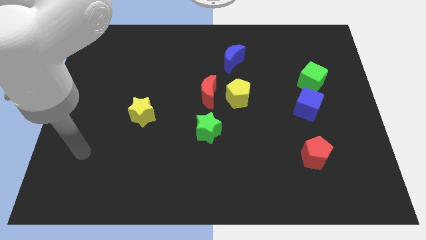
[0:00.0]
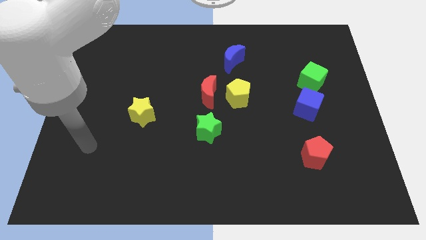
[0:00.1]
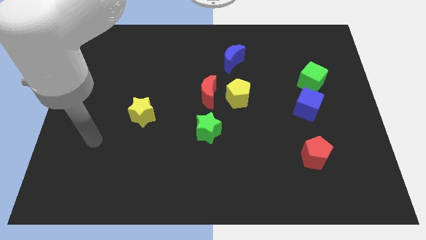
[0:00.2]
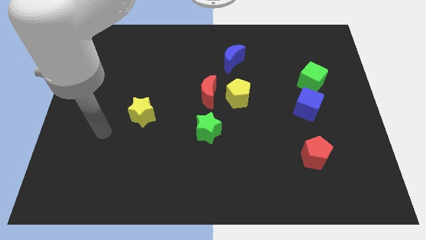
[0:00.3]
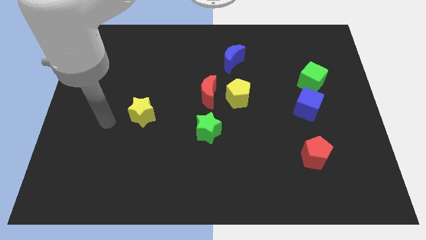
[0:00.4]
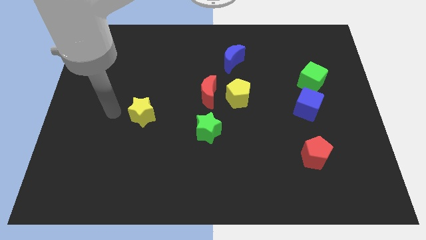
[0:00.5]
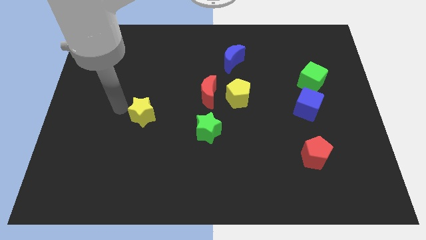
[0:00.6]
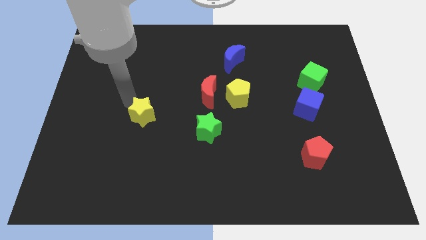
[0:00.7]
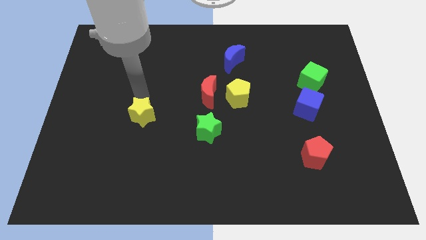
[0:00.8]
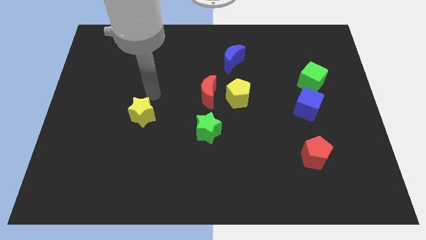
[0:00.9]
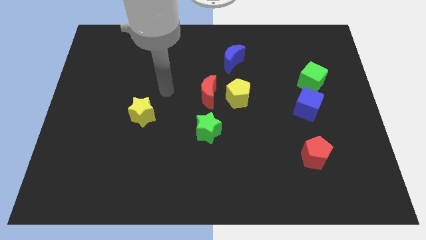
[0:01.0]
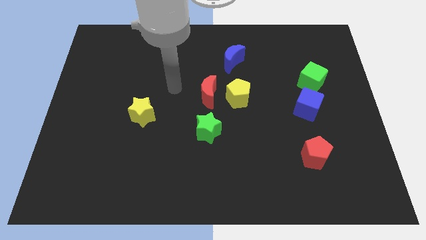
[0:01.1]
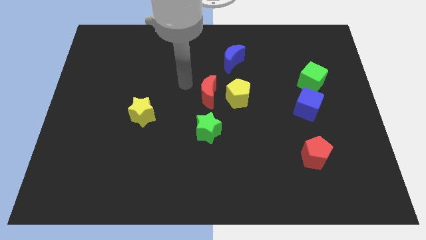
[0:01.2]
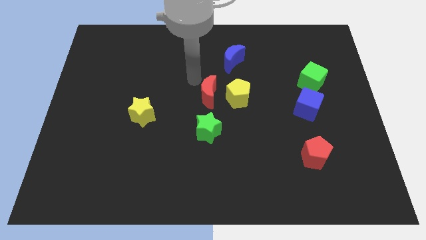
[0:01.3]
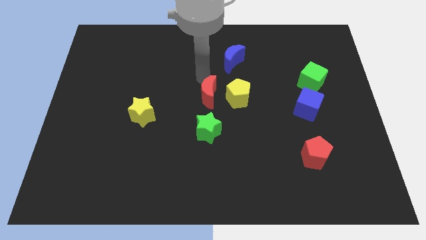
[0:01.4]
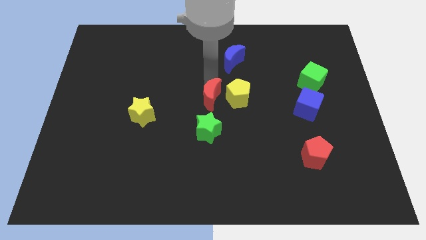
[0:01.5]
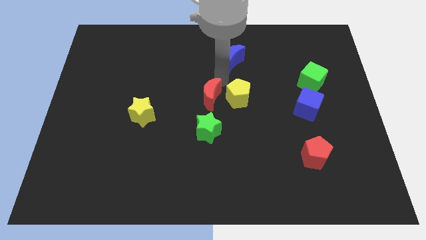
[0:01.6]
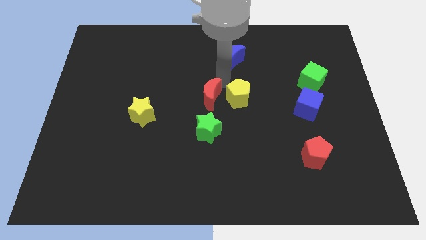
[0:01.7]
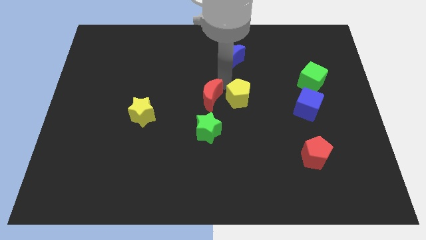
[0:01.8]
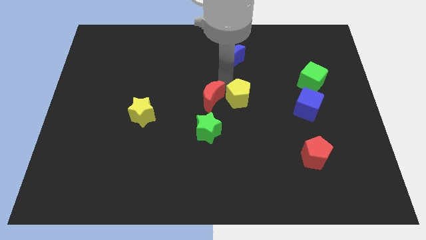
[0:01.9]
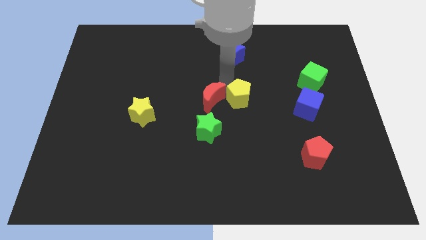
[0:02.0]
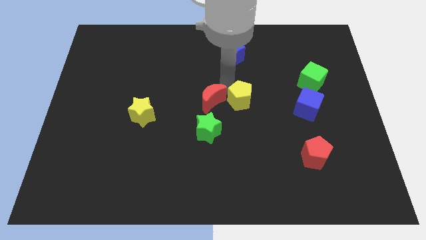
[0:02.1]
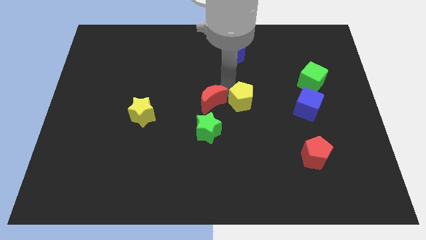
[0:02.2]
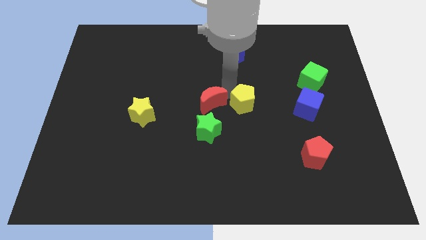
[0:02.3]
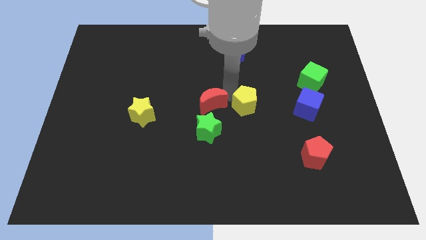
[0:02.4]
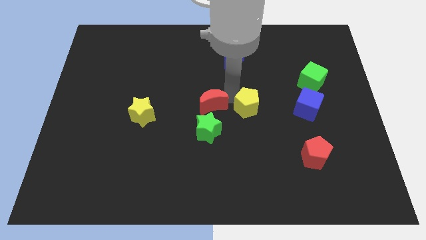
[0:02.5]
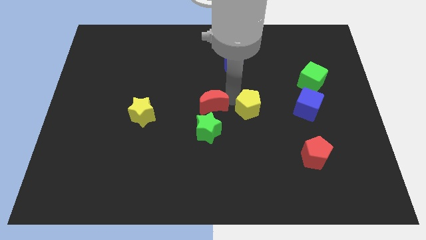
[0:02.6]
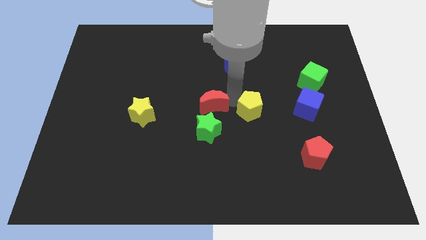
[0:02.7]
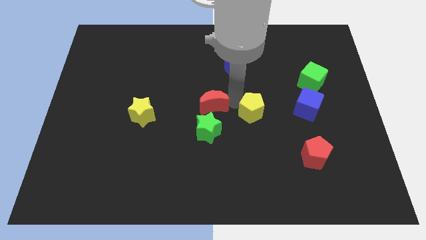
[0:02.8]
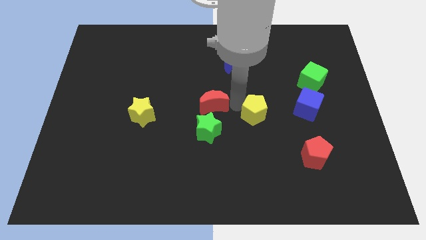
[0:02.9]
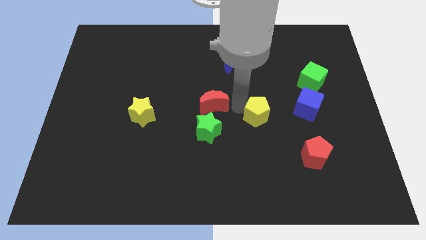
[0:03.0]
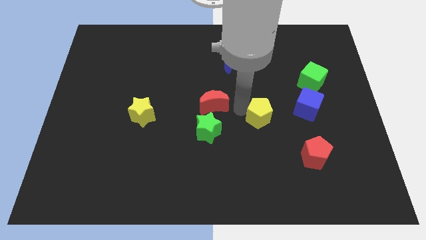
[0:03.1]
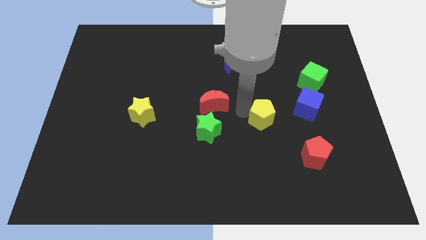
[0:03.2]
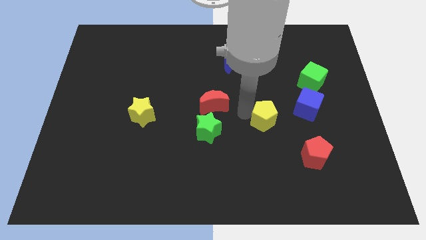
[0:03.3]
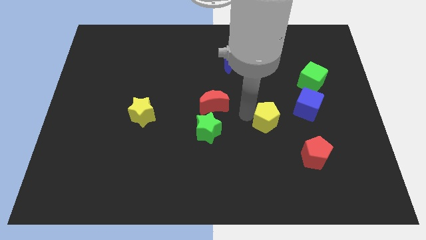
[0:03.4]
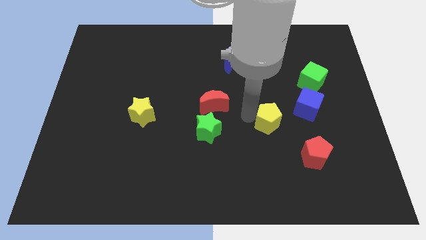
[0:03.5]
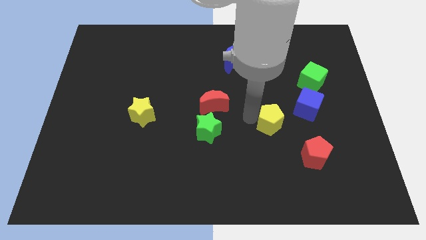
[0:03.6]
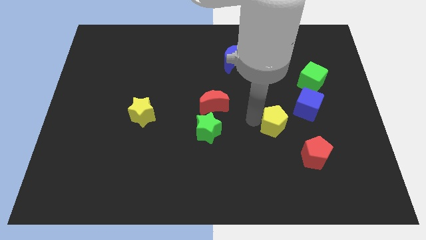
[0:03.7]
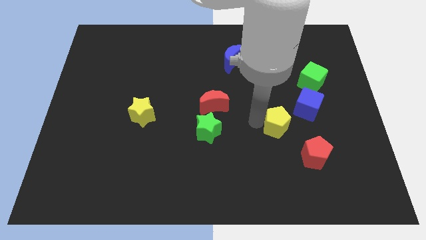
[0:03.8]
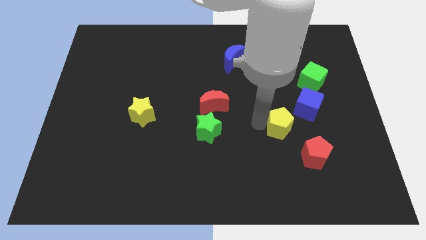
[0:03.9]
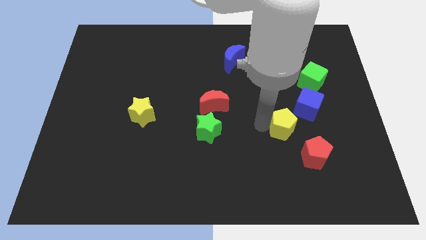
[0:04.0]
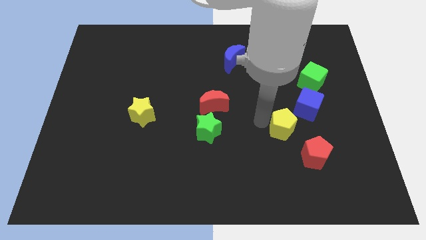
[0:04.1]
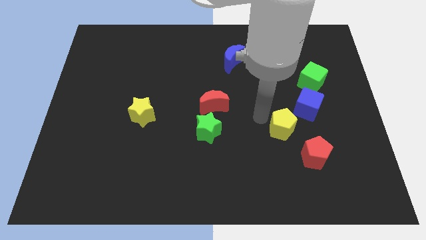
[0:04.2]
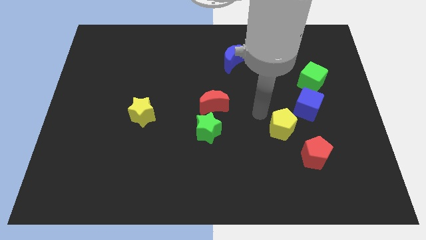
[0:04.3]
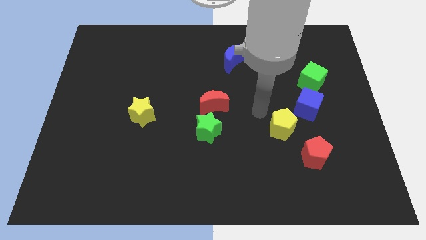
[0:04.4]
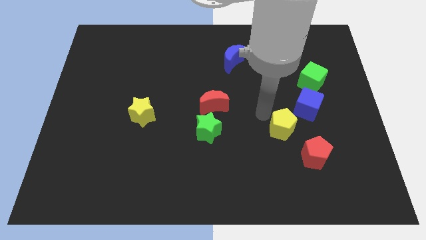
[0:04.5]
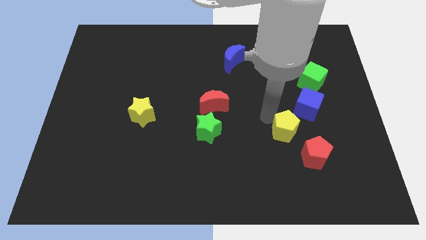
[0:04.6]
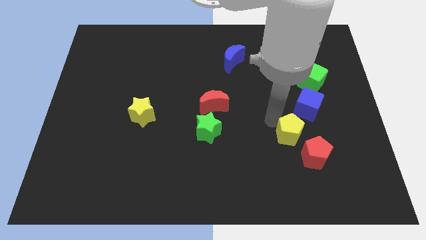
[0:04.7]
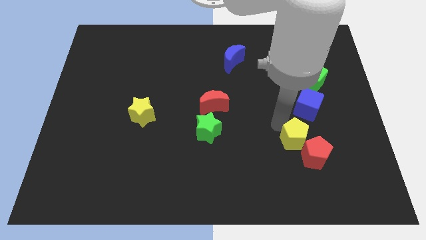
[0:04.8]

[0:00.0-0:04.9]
put the yellow pentagon close to the red pentagon

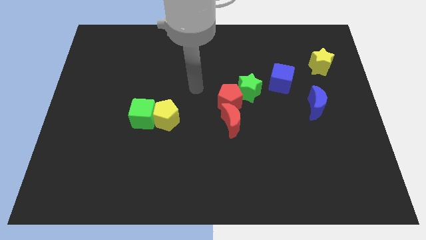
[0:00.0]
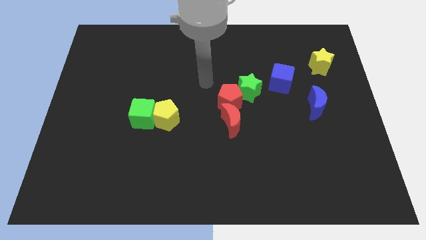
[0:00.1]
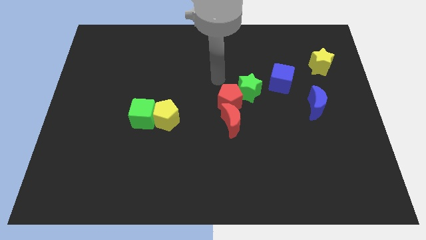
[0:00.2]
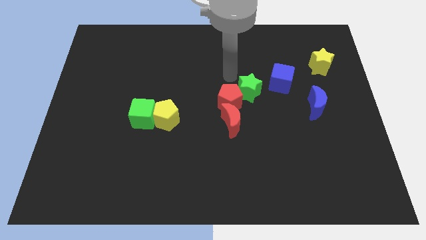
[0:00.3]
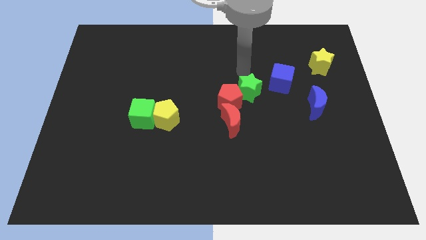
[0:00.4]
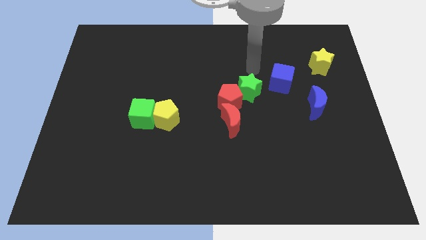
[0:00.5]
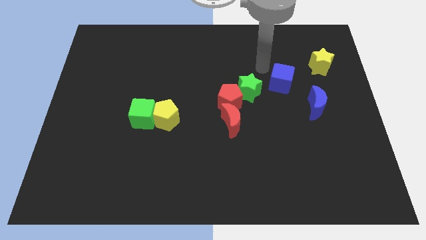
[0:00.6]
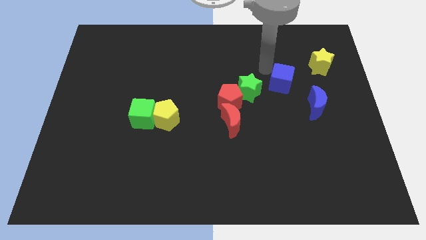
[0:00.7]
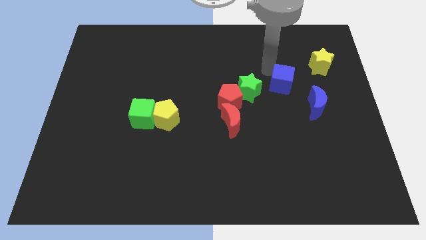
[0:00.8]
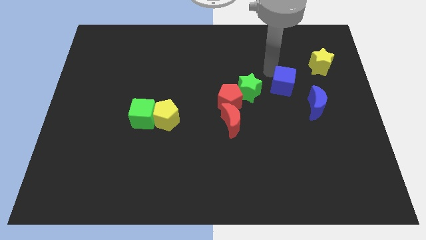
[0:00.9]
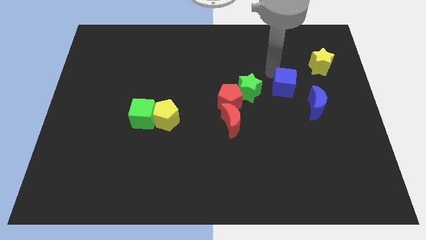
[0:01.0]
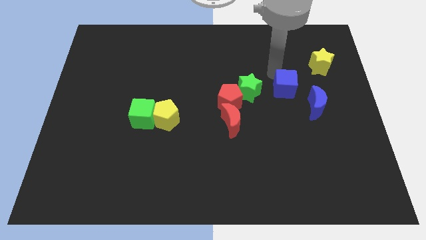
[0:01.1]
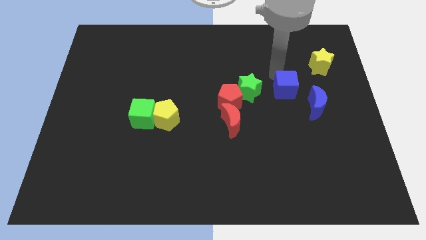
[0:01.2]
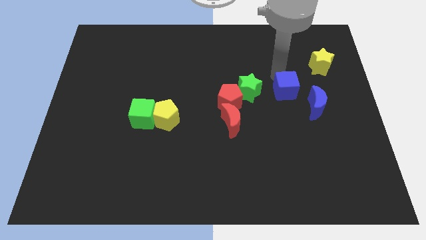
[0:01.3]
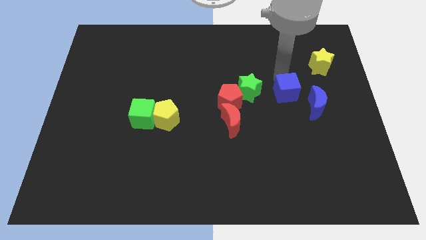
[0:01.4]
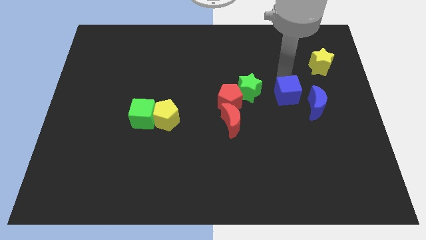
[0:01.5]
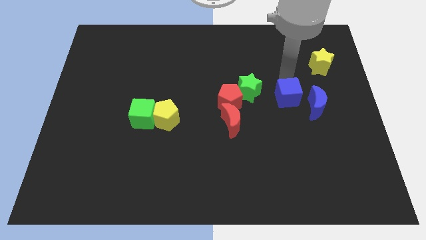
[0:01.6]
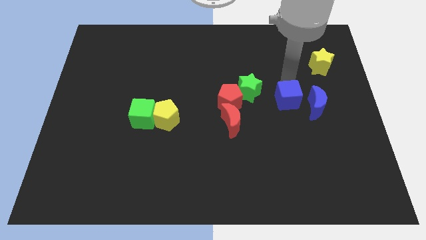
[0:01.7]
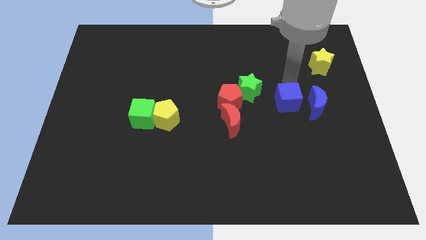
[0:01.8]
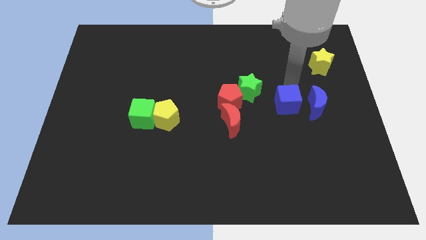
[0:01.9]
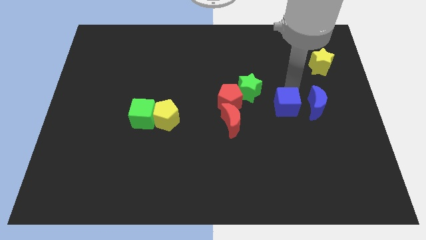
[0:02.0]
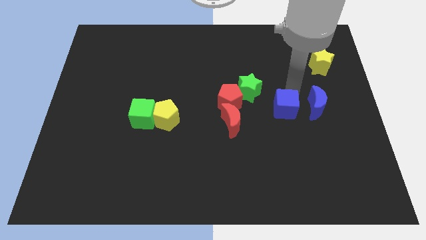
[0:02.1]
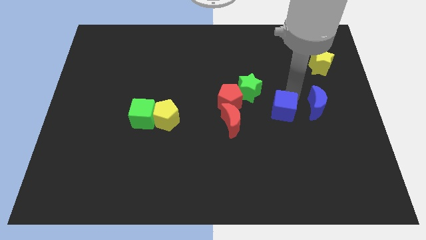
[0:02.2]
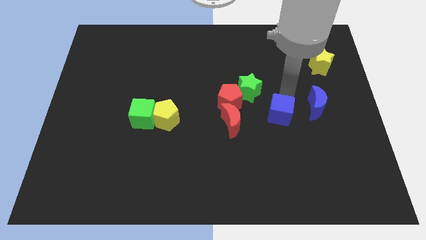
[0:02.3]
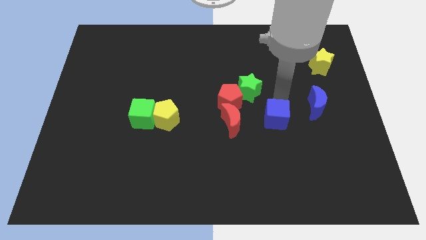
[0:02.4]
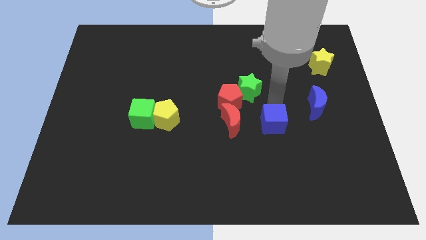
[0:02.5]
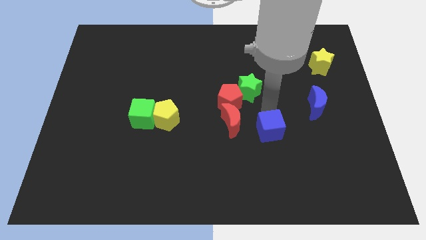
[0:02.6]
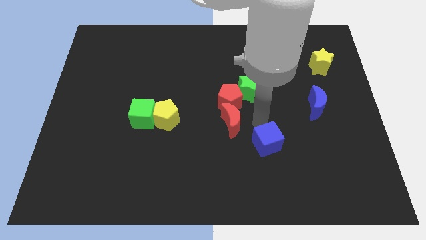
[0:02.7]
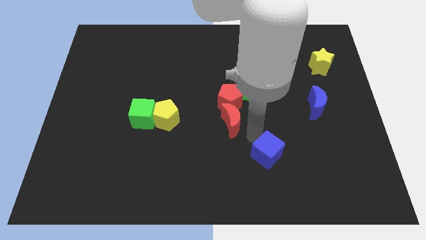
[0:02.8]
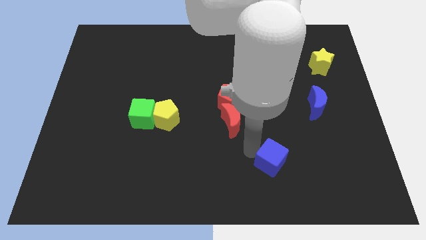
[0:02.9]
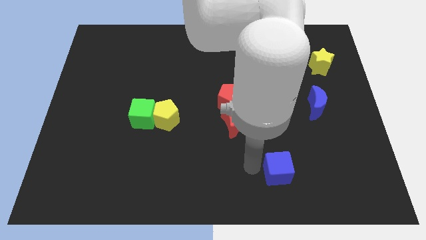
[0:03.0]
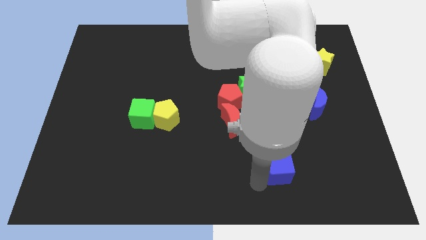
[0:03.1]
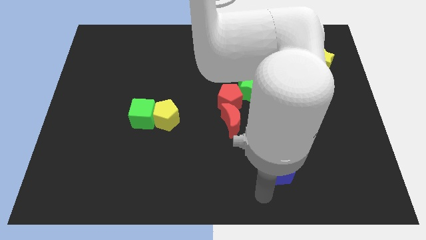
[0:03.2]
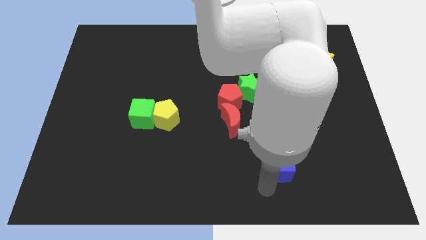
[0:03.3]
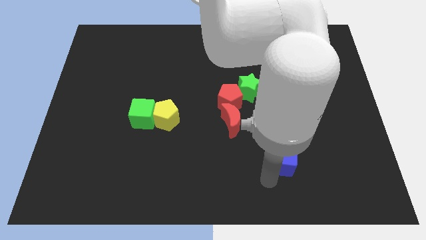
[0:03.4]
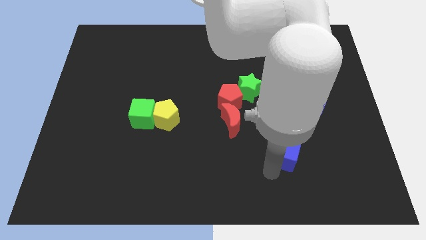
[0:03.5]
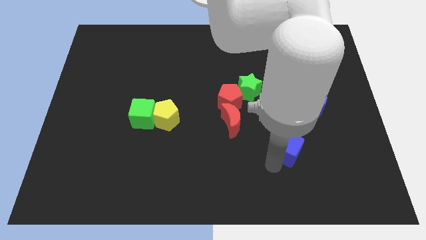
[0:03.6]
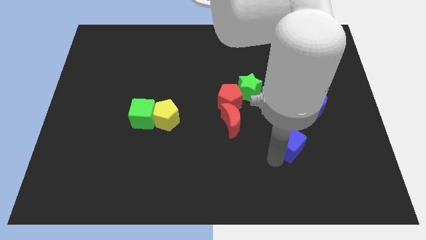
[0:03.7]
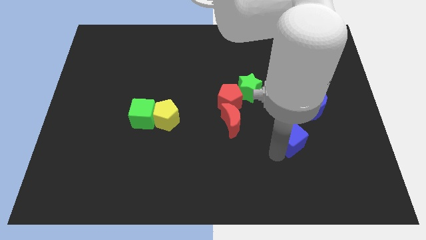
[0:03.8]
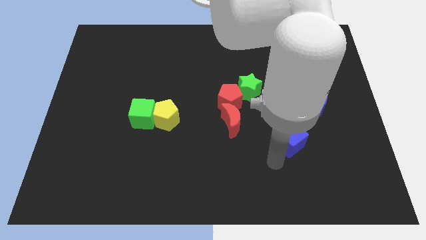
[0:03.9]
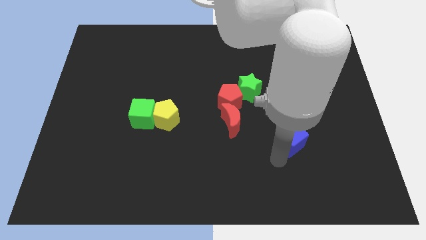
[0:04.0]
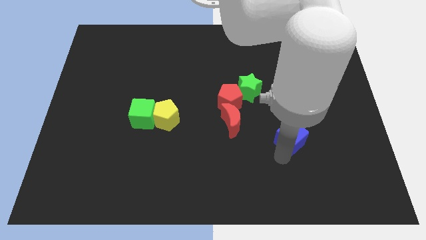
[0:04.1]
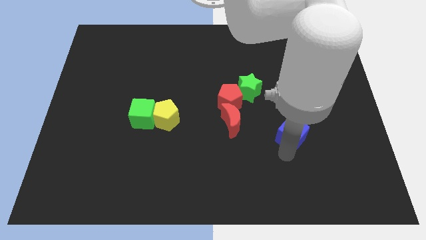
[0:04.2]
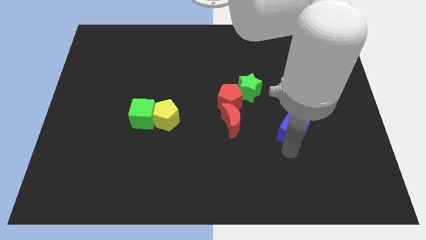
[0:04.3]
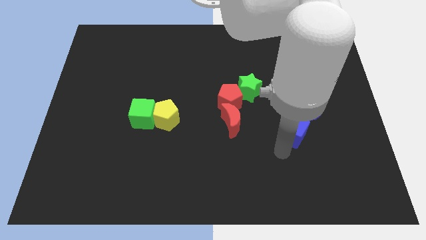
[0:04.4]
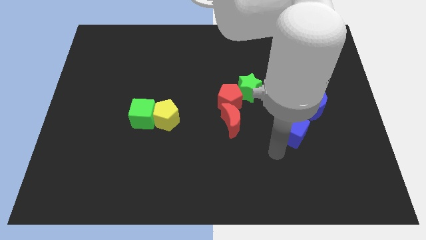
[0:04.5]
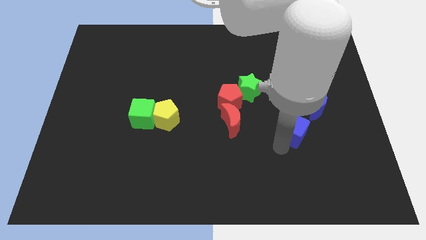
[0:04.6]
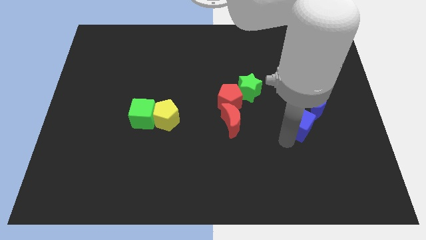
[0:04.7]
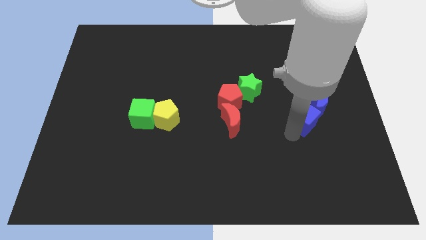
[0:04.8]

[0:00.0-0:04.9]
put the blue cube close to the blue moon
